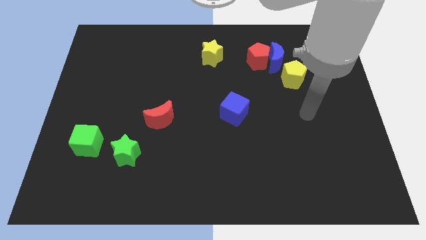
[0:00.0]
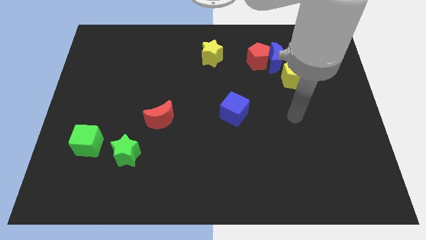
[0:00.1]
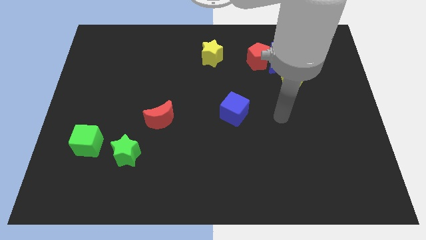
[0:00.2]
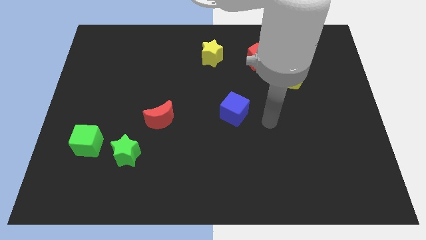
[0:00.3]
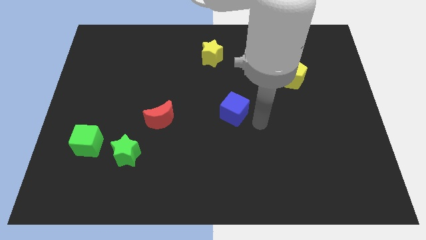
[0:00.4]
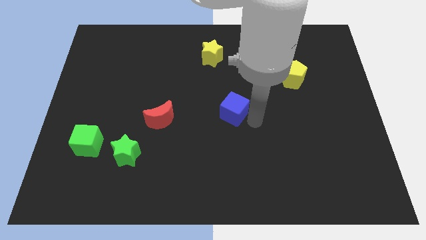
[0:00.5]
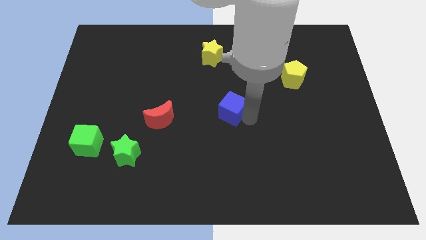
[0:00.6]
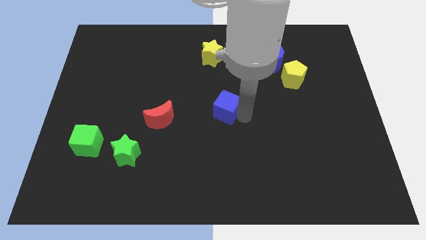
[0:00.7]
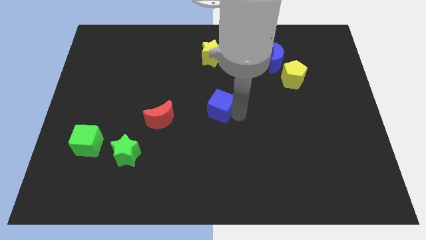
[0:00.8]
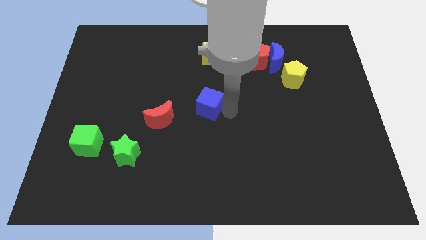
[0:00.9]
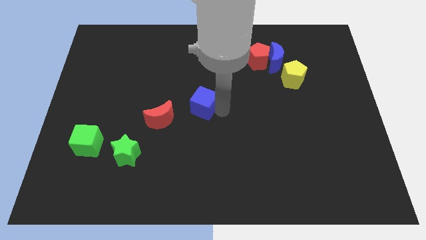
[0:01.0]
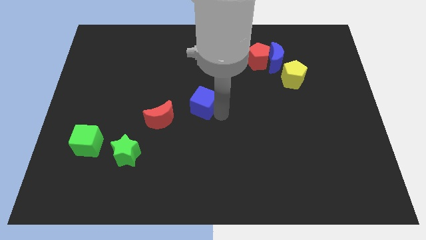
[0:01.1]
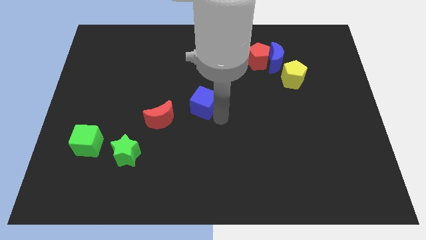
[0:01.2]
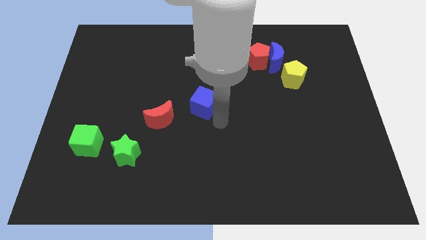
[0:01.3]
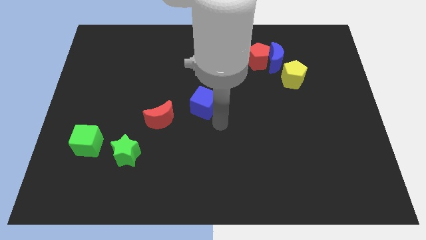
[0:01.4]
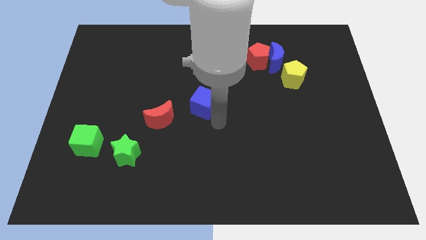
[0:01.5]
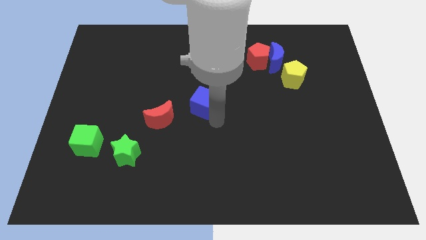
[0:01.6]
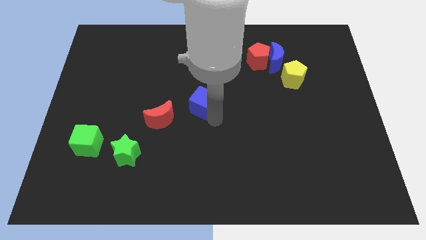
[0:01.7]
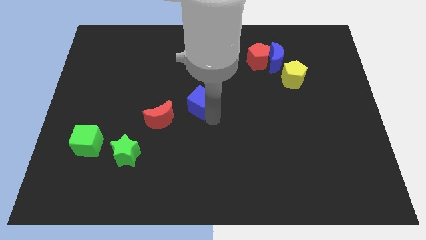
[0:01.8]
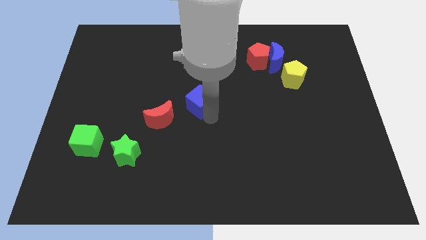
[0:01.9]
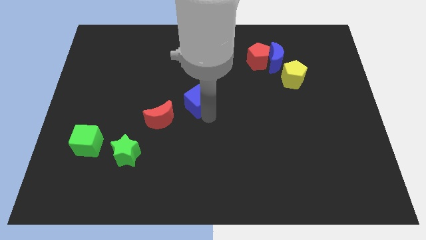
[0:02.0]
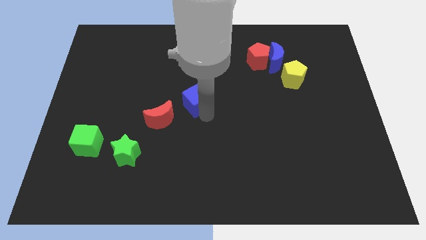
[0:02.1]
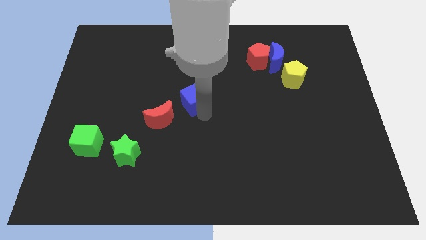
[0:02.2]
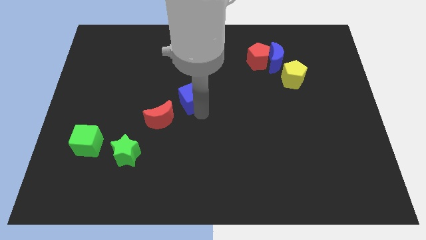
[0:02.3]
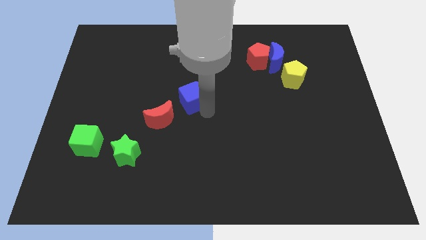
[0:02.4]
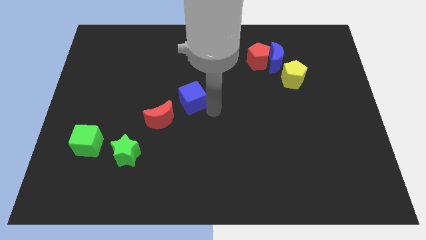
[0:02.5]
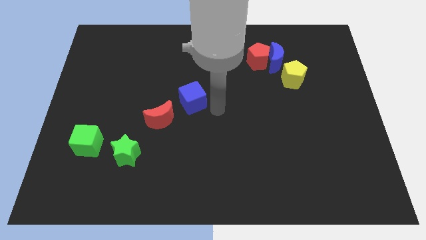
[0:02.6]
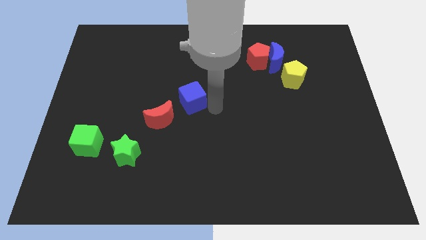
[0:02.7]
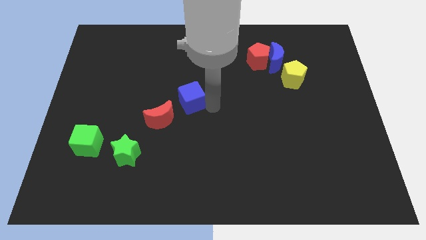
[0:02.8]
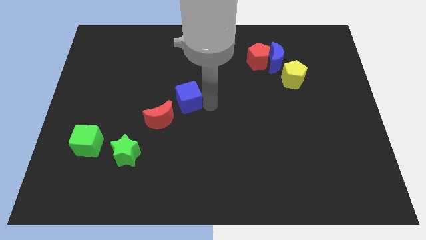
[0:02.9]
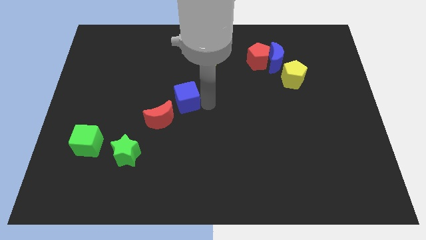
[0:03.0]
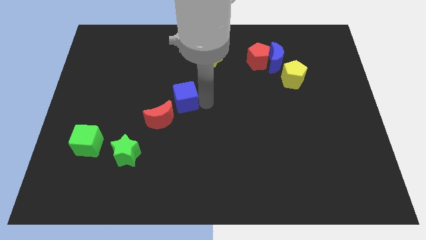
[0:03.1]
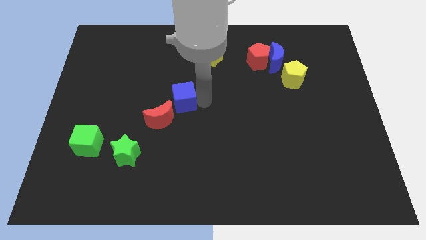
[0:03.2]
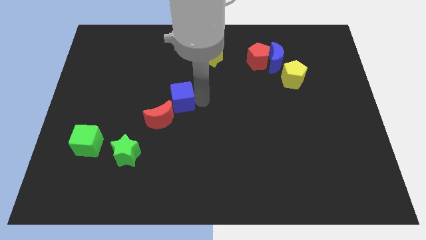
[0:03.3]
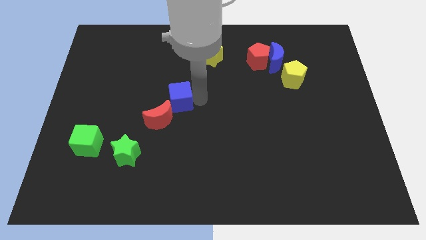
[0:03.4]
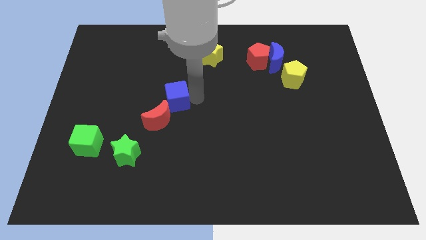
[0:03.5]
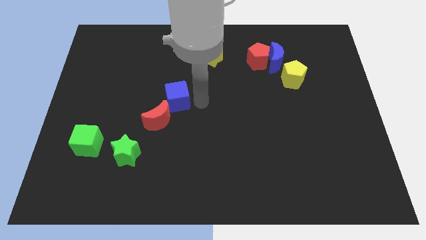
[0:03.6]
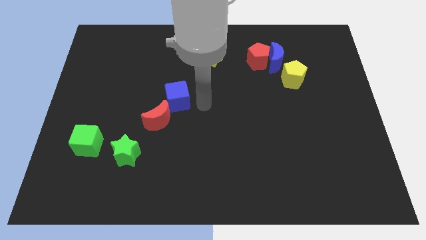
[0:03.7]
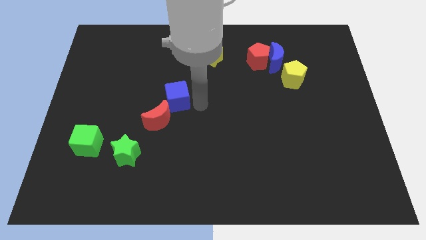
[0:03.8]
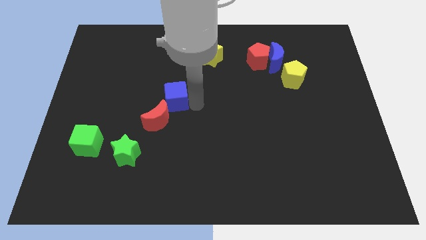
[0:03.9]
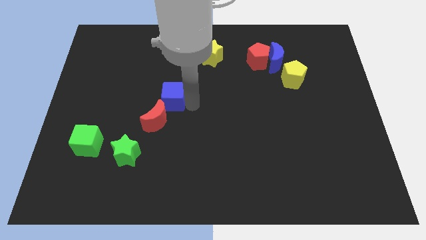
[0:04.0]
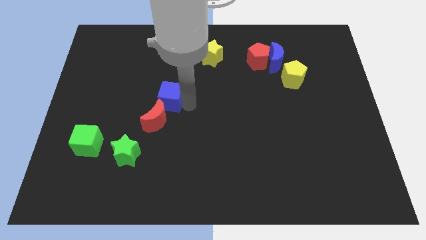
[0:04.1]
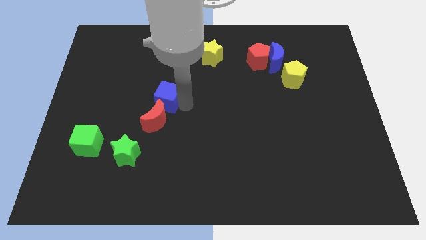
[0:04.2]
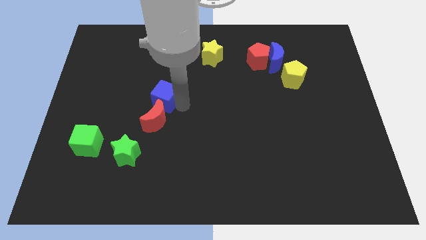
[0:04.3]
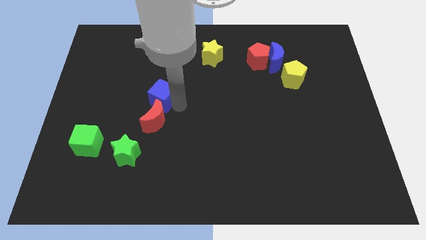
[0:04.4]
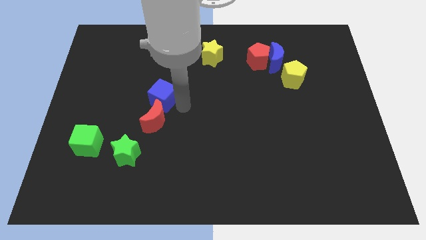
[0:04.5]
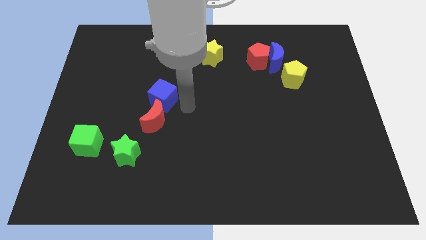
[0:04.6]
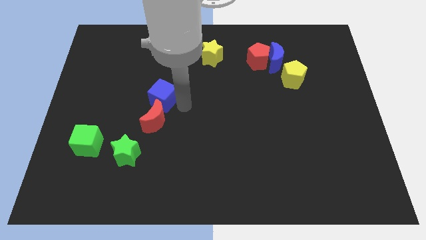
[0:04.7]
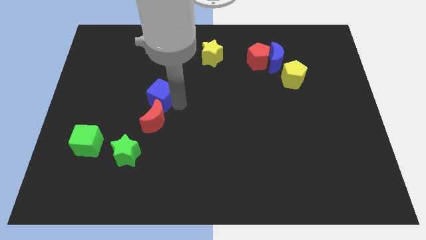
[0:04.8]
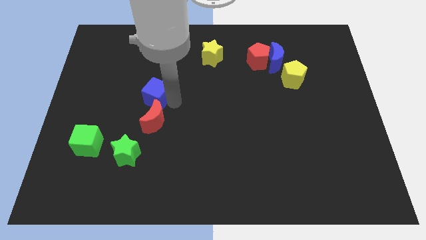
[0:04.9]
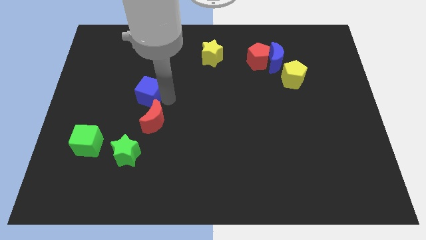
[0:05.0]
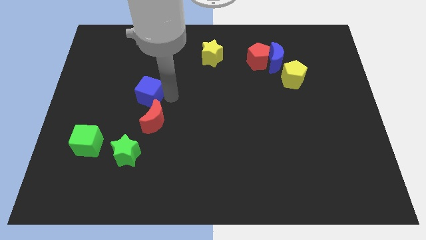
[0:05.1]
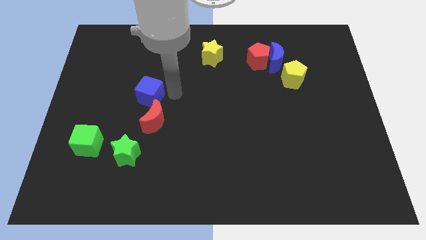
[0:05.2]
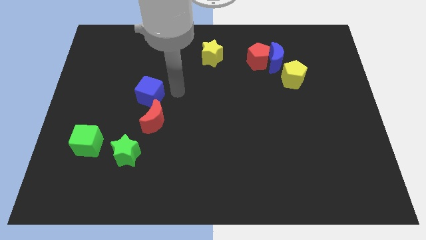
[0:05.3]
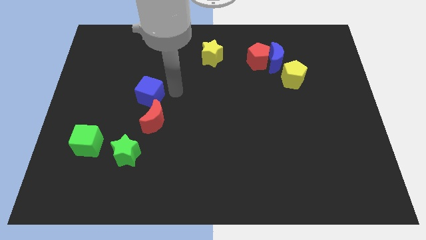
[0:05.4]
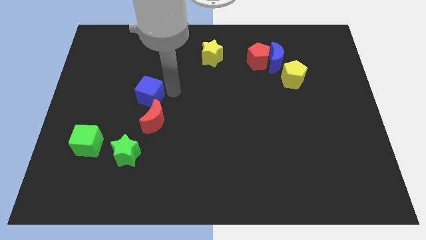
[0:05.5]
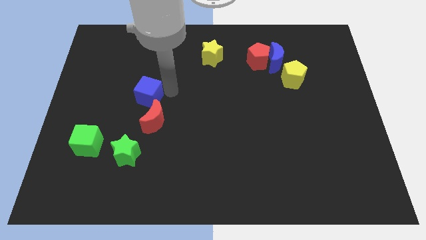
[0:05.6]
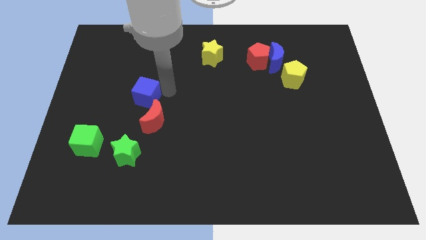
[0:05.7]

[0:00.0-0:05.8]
slide the blue cube to the left

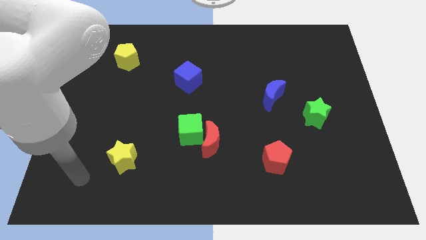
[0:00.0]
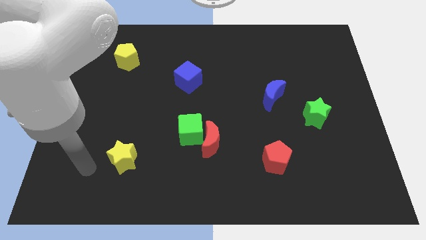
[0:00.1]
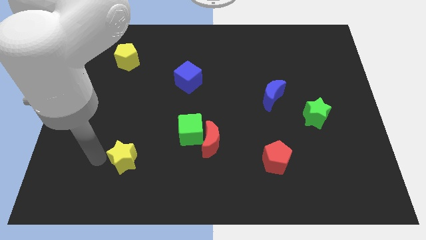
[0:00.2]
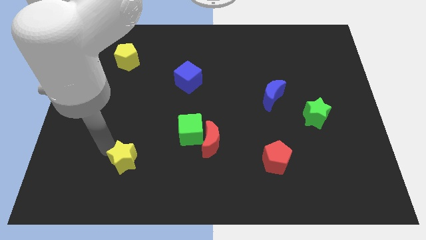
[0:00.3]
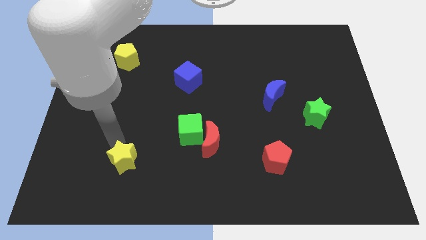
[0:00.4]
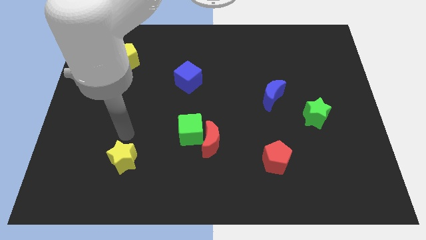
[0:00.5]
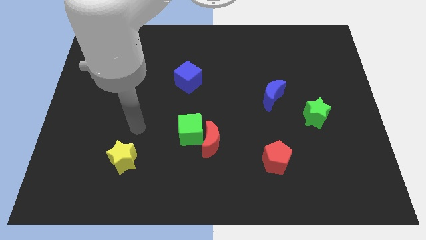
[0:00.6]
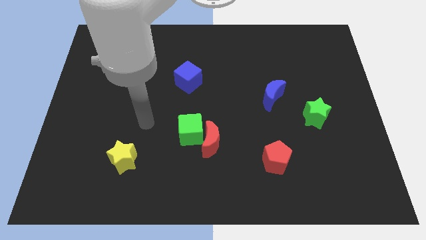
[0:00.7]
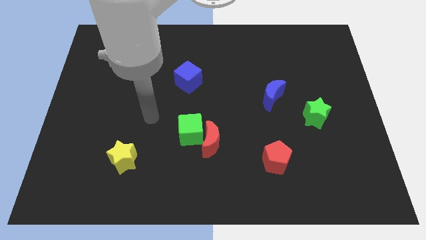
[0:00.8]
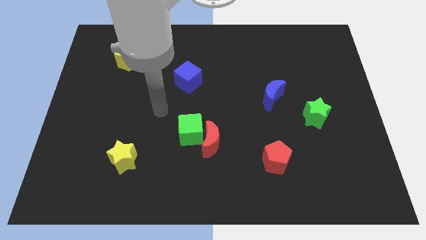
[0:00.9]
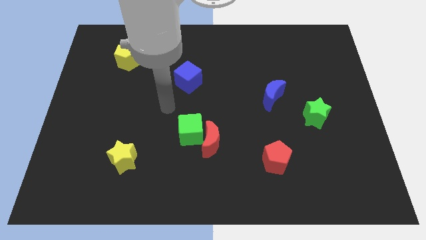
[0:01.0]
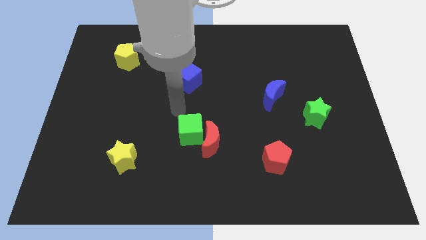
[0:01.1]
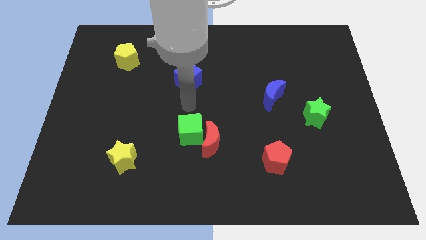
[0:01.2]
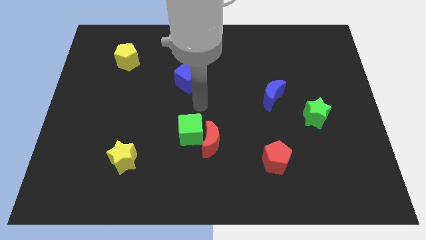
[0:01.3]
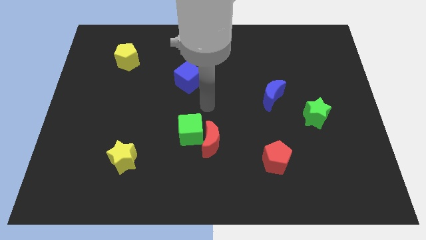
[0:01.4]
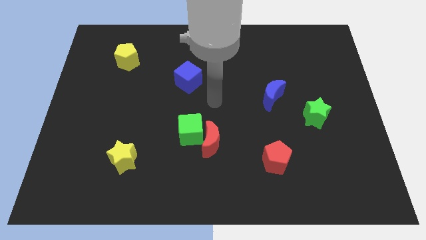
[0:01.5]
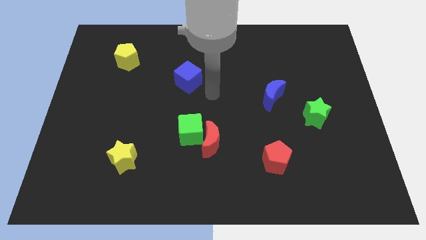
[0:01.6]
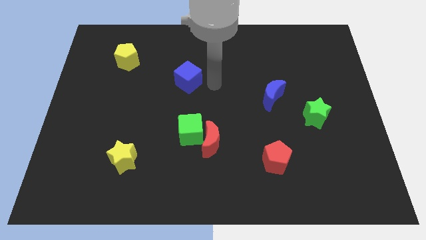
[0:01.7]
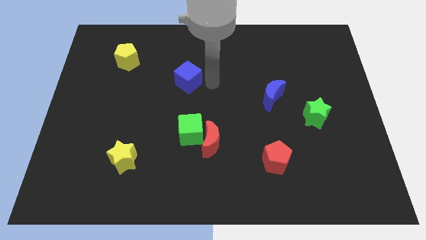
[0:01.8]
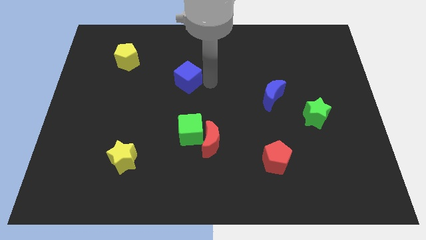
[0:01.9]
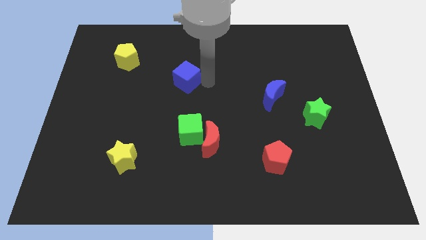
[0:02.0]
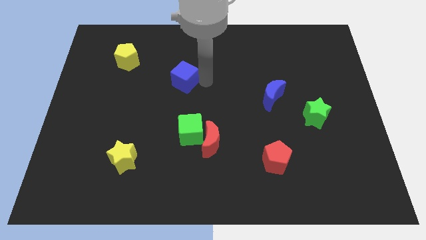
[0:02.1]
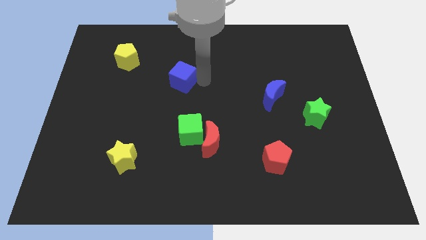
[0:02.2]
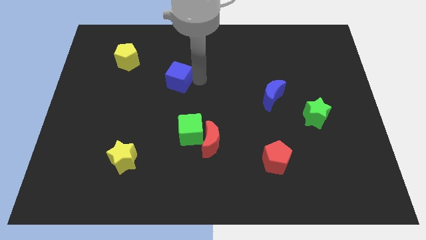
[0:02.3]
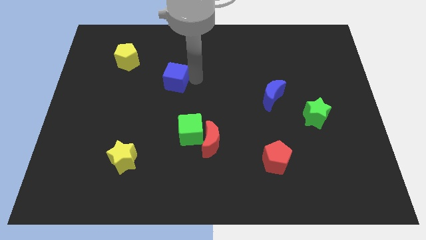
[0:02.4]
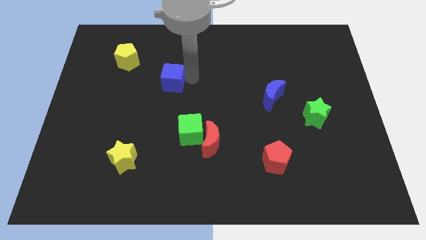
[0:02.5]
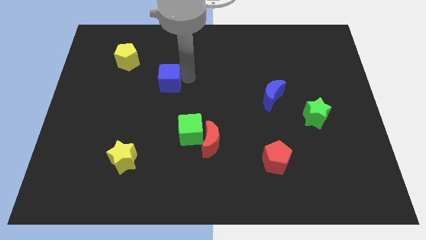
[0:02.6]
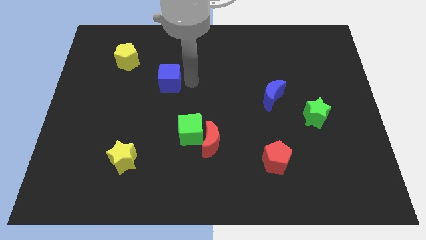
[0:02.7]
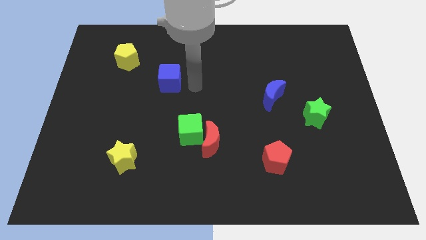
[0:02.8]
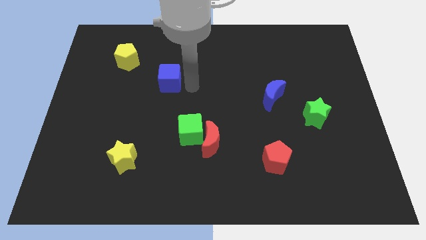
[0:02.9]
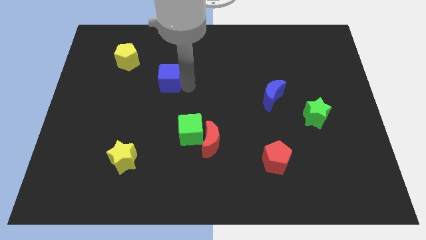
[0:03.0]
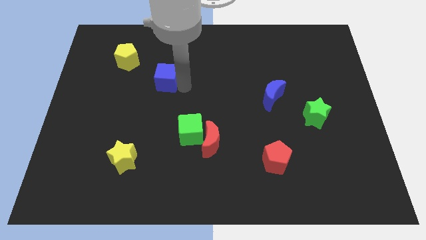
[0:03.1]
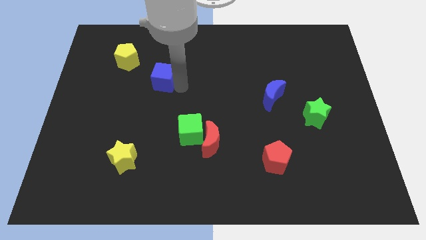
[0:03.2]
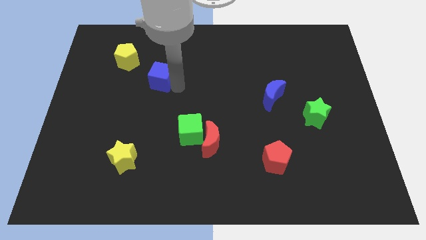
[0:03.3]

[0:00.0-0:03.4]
move the blue cube a bit to the left
